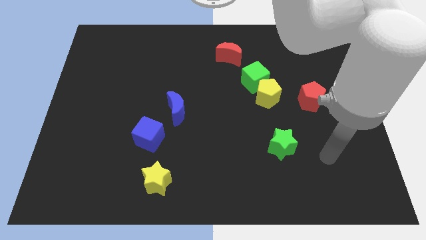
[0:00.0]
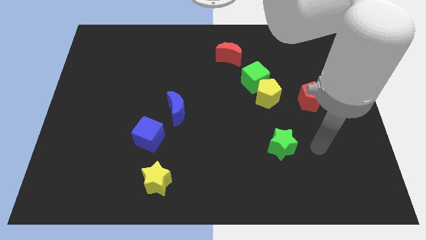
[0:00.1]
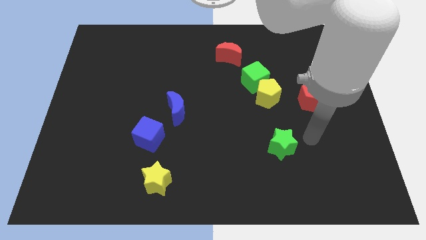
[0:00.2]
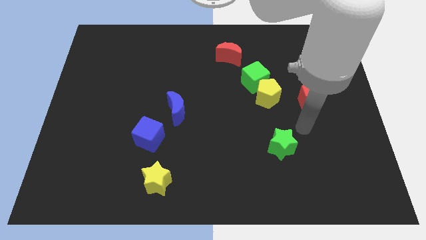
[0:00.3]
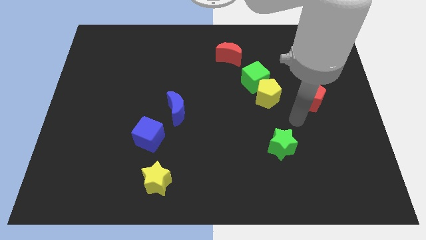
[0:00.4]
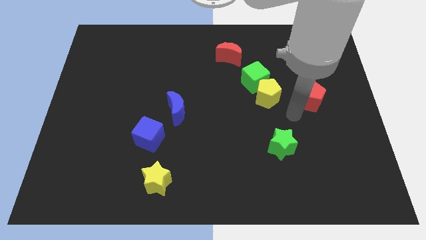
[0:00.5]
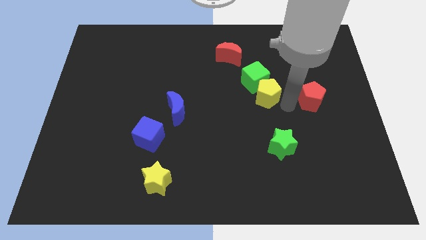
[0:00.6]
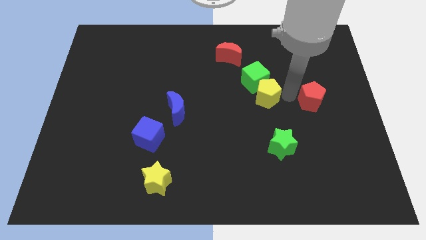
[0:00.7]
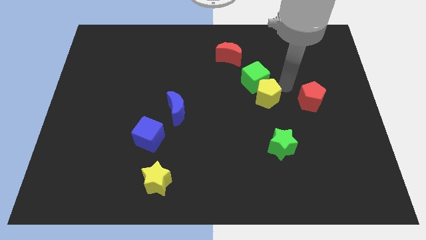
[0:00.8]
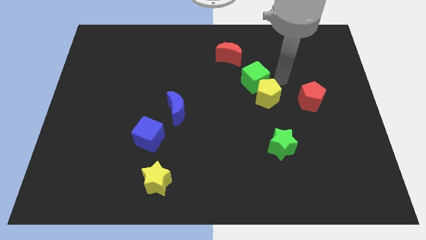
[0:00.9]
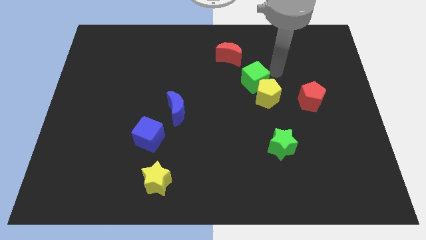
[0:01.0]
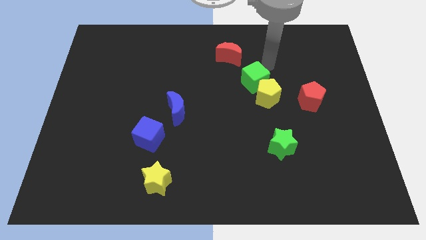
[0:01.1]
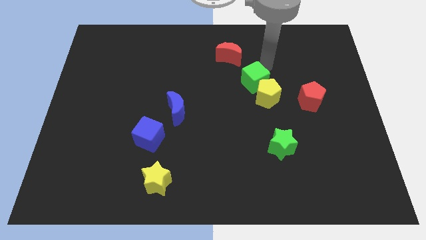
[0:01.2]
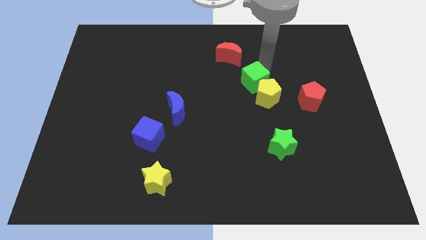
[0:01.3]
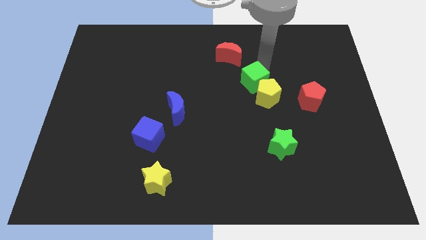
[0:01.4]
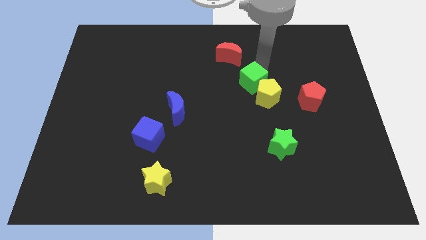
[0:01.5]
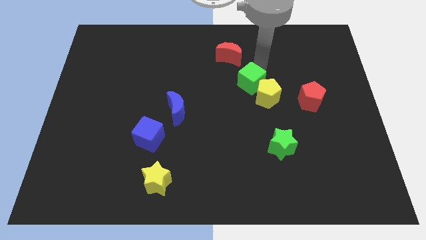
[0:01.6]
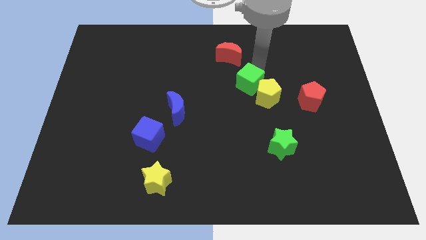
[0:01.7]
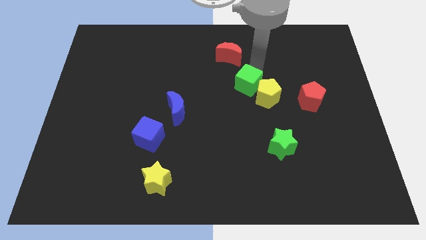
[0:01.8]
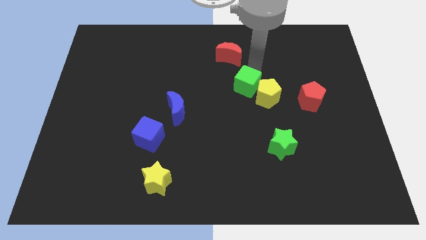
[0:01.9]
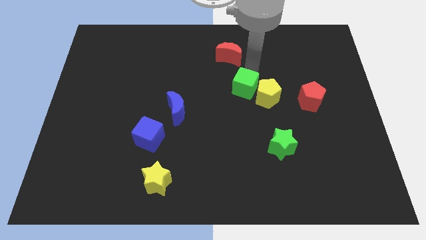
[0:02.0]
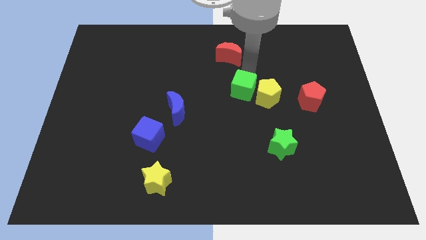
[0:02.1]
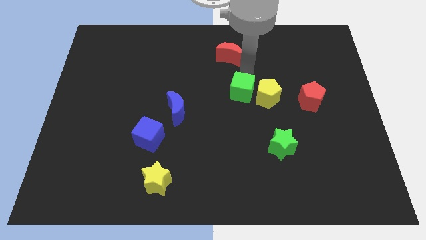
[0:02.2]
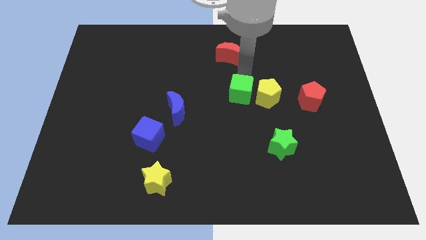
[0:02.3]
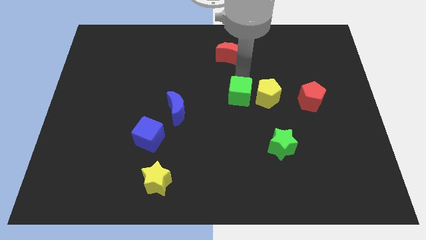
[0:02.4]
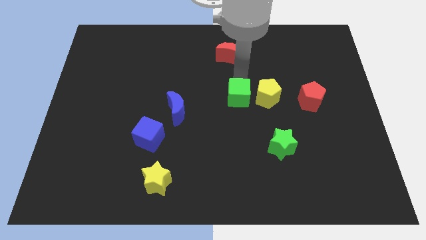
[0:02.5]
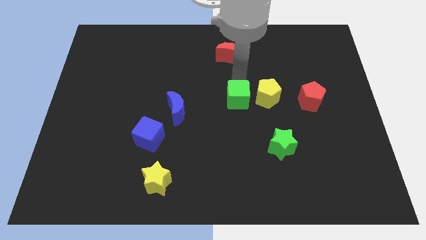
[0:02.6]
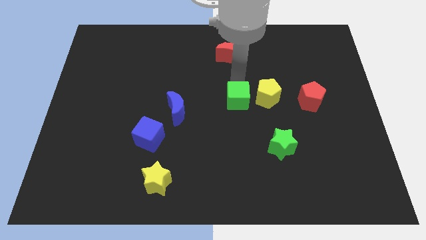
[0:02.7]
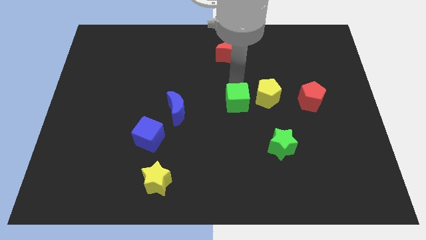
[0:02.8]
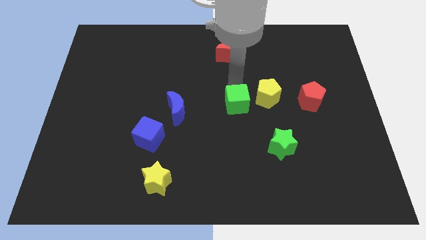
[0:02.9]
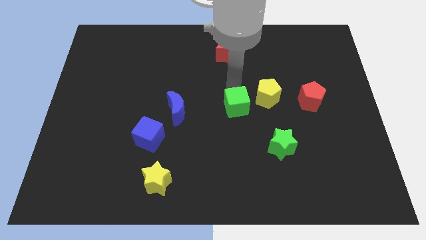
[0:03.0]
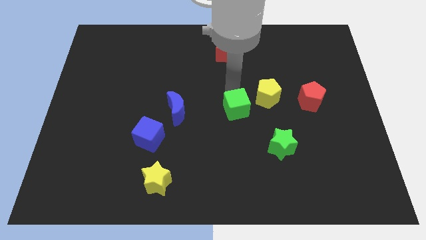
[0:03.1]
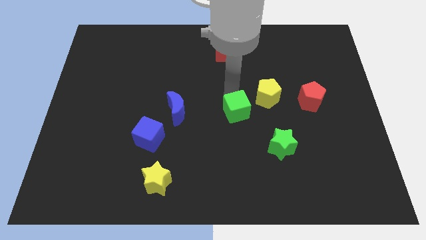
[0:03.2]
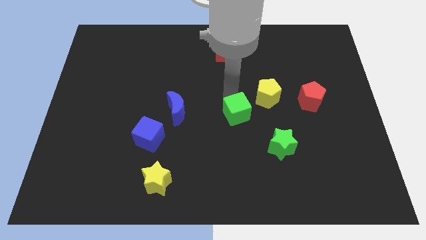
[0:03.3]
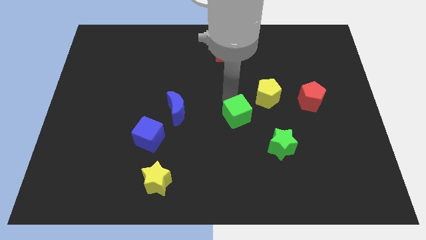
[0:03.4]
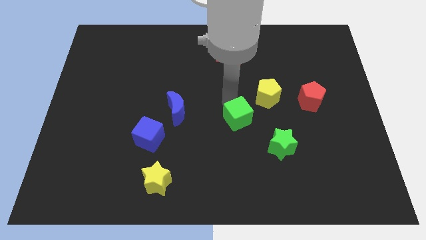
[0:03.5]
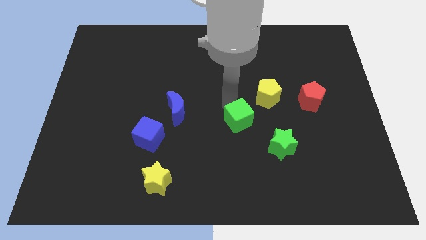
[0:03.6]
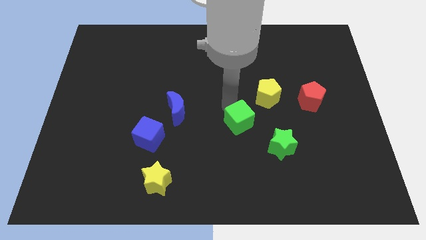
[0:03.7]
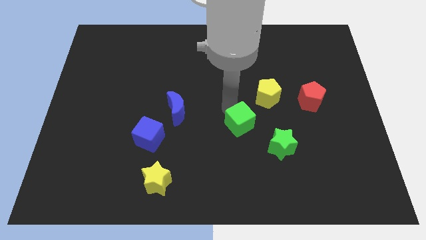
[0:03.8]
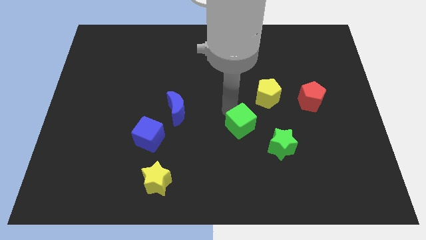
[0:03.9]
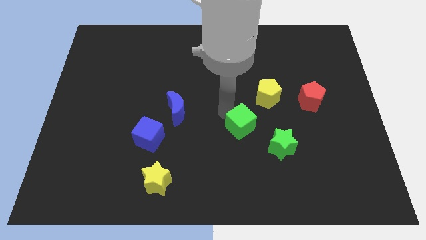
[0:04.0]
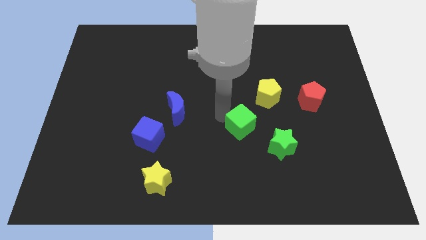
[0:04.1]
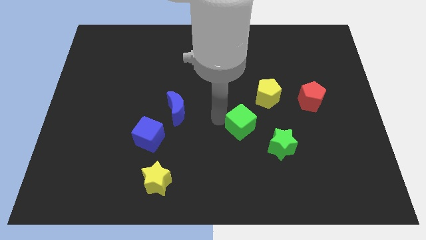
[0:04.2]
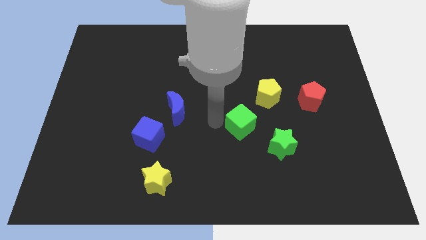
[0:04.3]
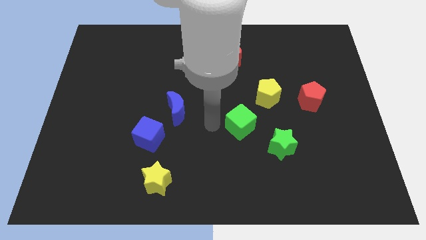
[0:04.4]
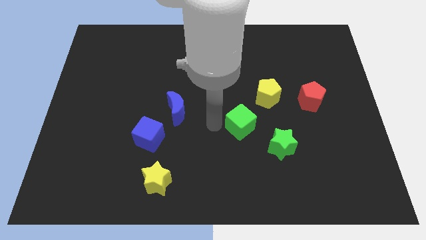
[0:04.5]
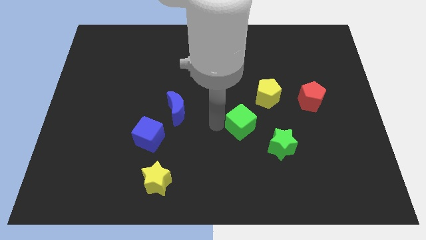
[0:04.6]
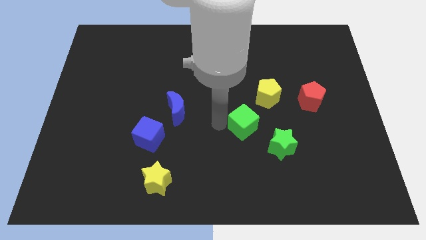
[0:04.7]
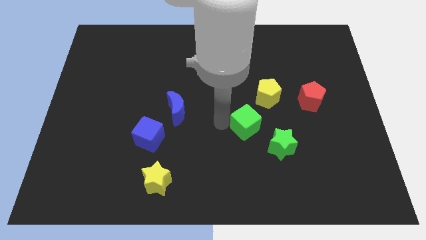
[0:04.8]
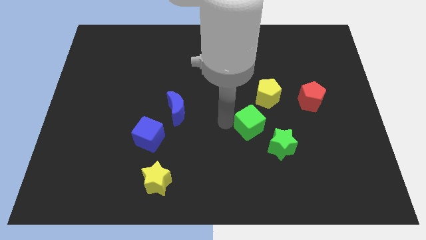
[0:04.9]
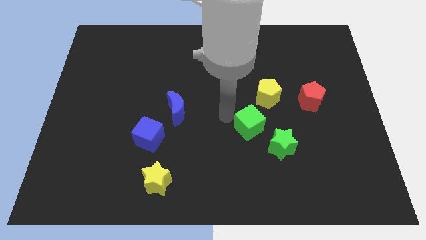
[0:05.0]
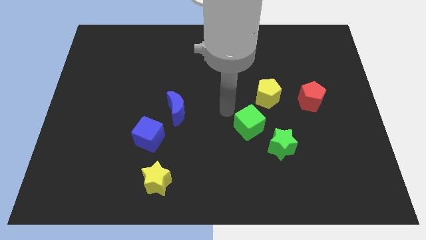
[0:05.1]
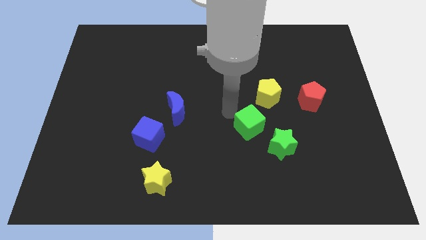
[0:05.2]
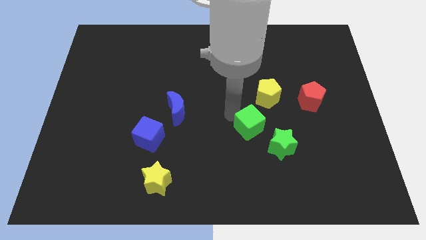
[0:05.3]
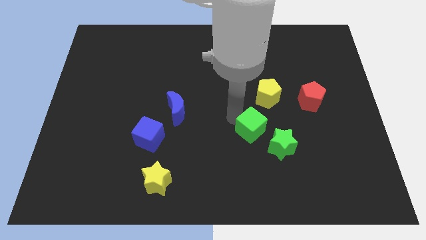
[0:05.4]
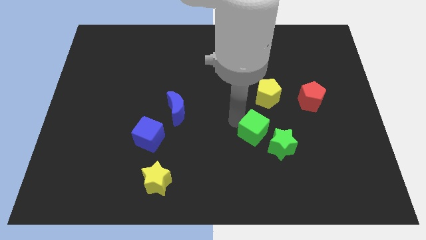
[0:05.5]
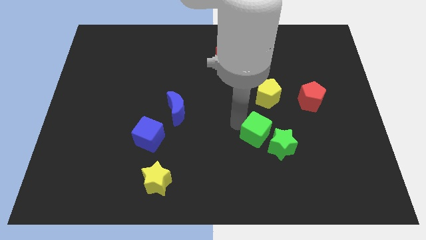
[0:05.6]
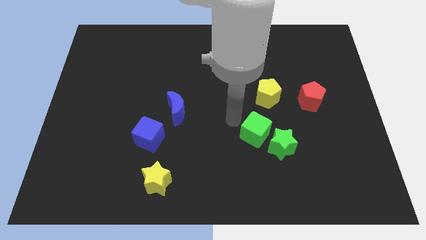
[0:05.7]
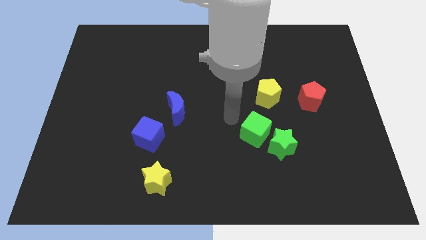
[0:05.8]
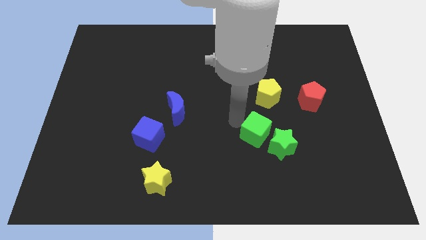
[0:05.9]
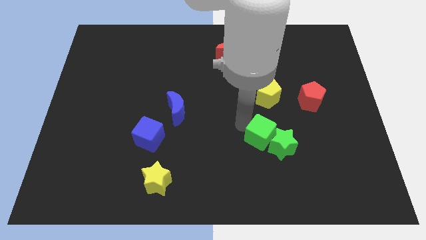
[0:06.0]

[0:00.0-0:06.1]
put the green cube to the green star

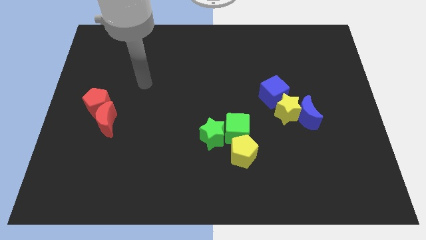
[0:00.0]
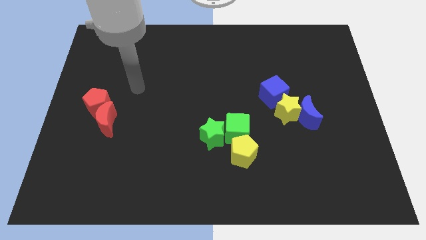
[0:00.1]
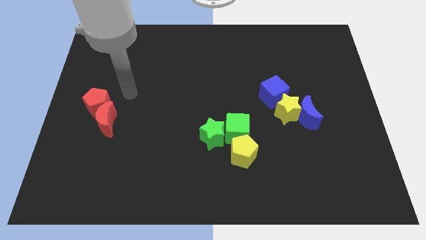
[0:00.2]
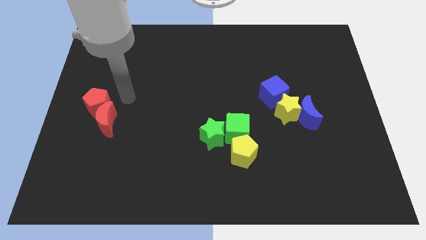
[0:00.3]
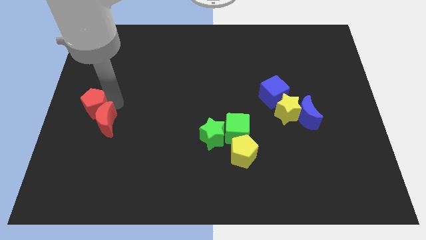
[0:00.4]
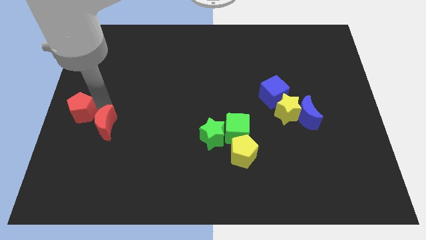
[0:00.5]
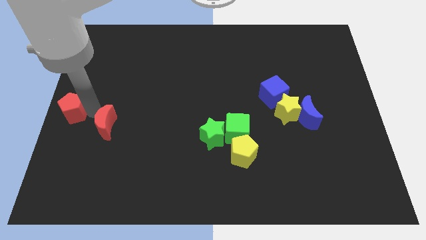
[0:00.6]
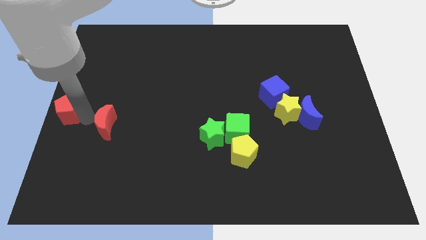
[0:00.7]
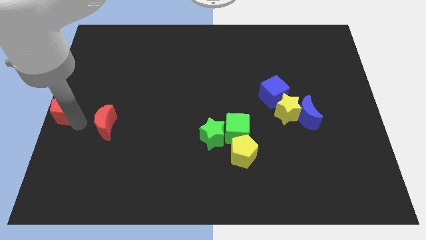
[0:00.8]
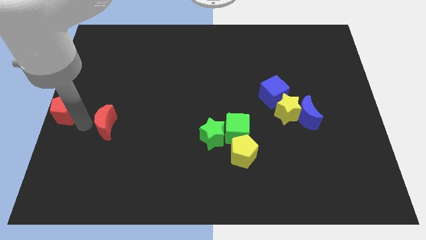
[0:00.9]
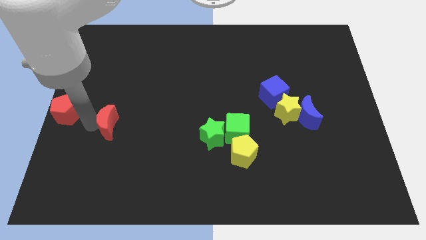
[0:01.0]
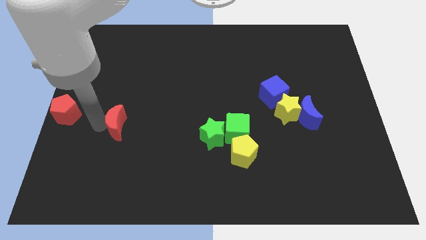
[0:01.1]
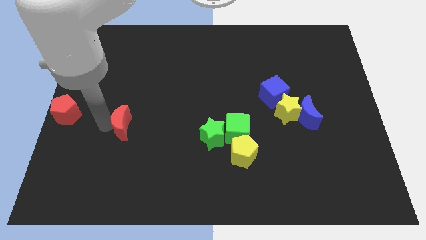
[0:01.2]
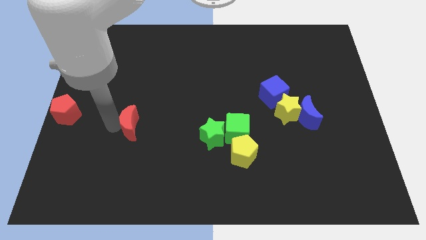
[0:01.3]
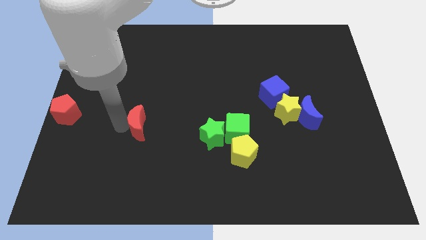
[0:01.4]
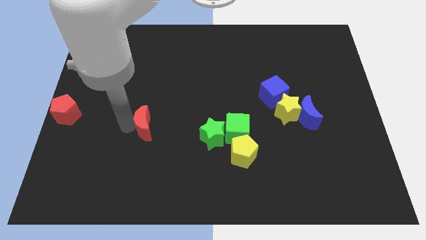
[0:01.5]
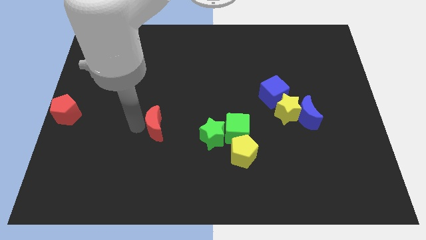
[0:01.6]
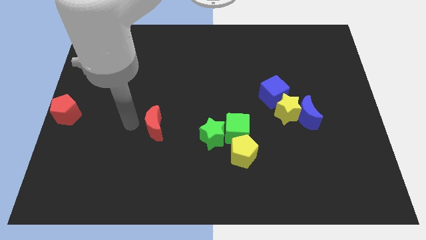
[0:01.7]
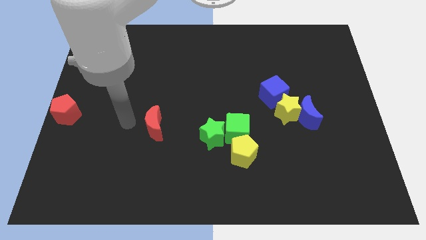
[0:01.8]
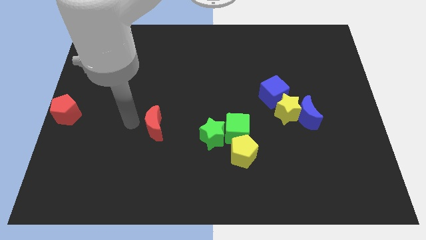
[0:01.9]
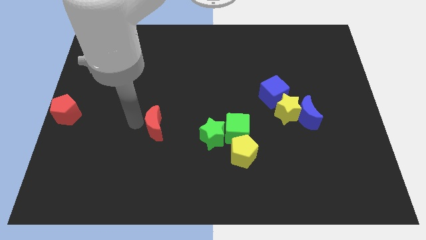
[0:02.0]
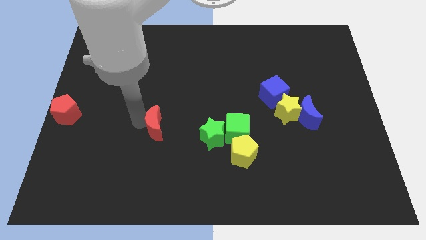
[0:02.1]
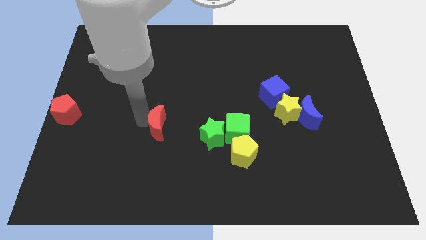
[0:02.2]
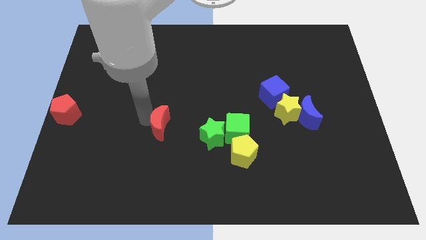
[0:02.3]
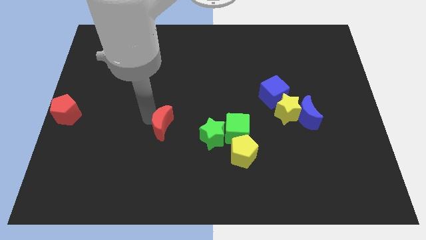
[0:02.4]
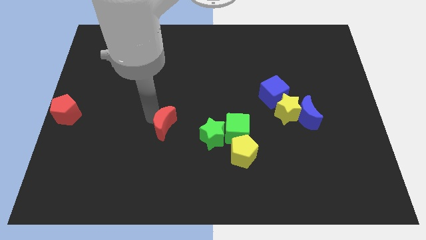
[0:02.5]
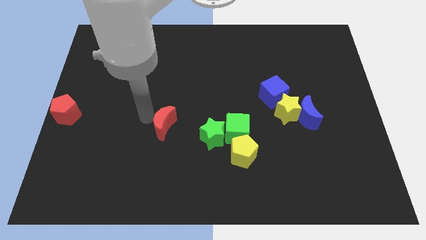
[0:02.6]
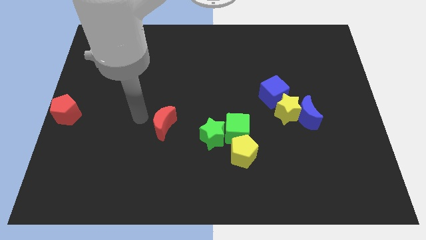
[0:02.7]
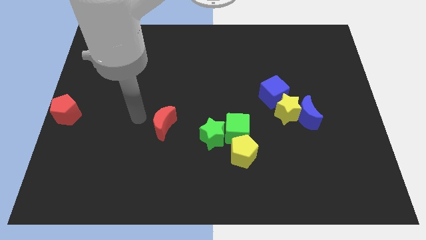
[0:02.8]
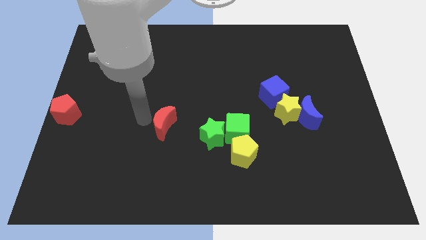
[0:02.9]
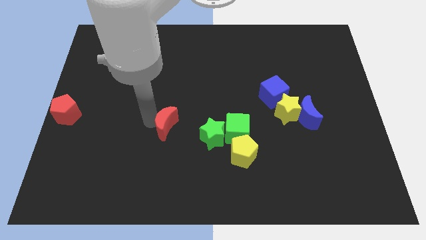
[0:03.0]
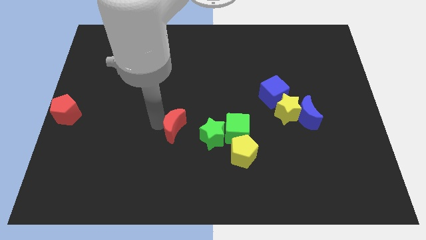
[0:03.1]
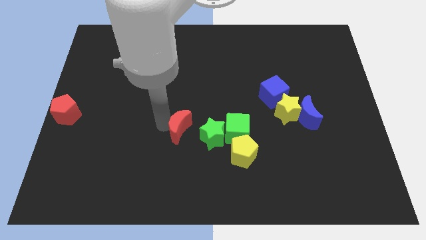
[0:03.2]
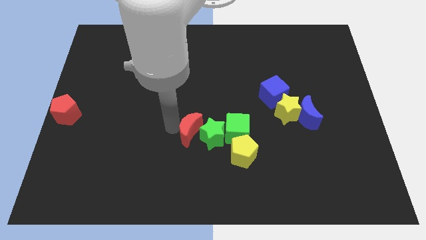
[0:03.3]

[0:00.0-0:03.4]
move the red moon towards the green star
